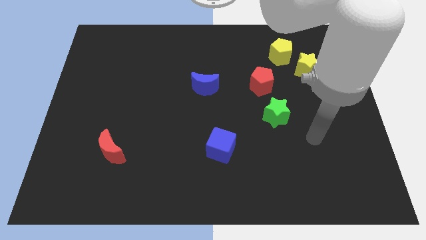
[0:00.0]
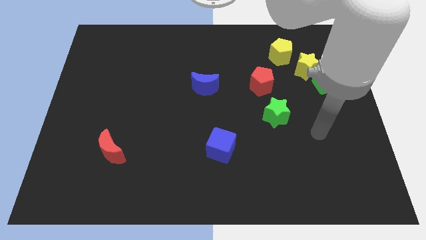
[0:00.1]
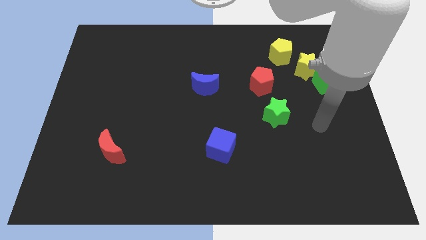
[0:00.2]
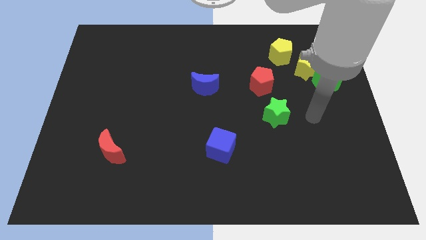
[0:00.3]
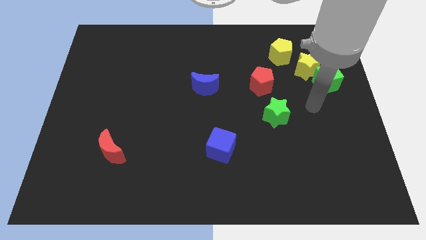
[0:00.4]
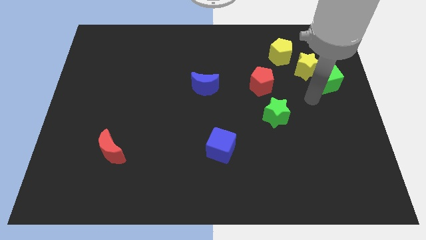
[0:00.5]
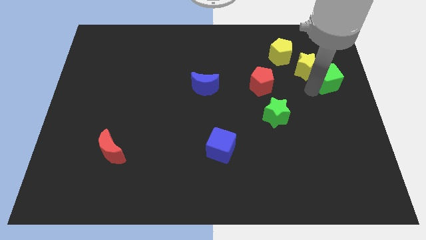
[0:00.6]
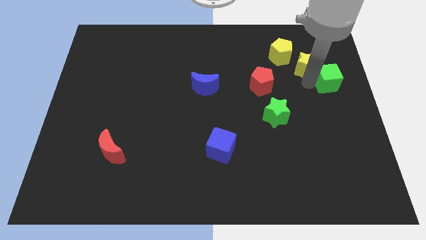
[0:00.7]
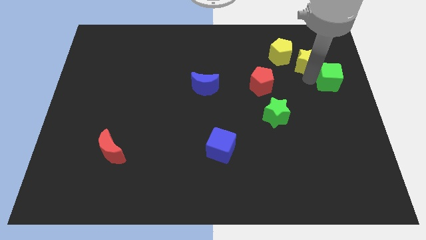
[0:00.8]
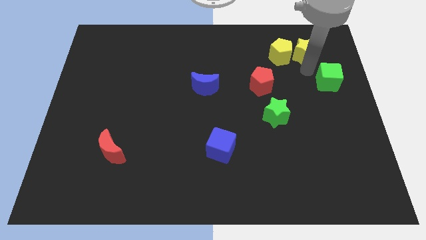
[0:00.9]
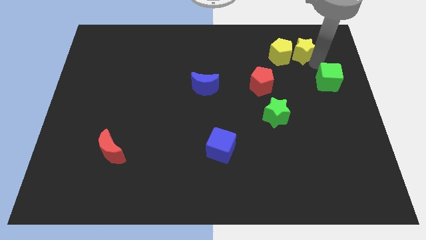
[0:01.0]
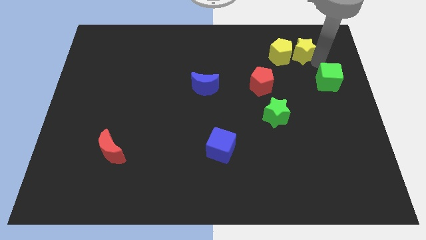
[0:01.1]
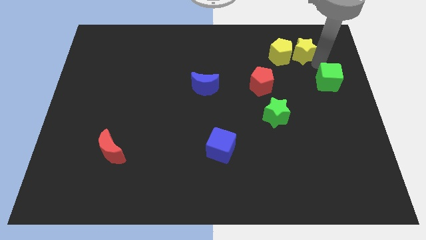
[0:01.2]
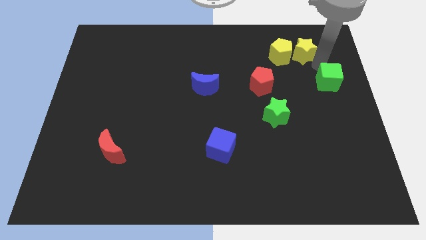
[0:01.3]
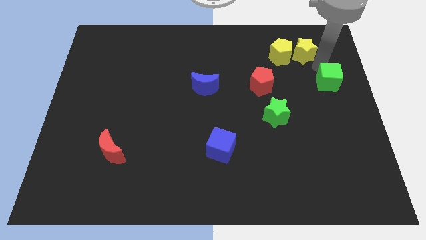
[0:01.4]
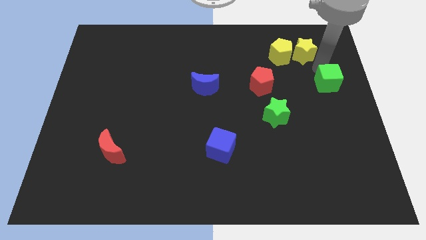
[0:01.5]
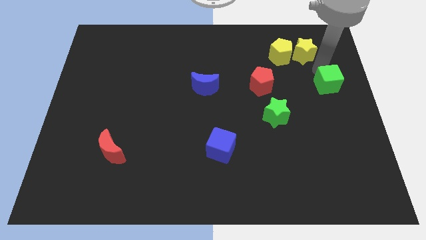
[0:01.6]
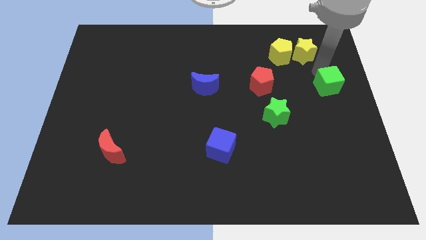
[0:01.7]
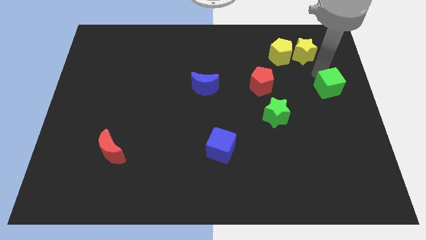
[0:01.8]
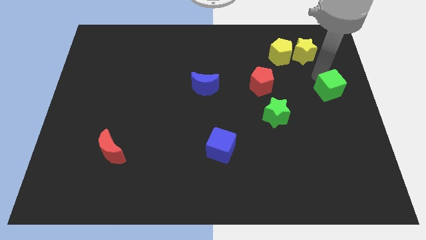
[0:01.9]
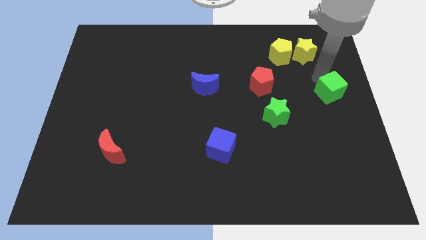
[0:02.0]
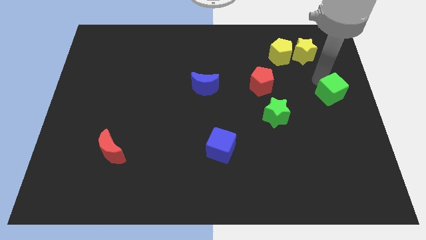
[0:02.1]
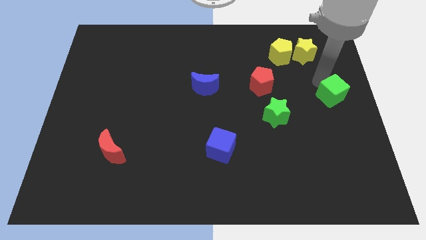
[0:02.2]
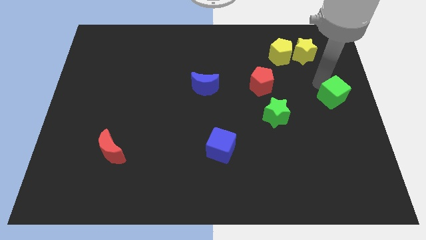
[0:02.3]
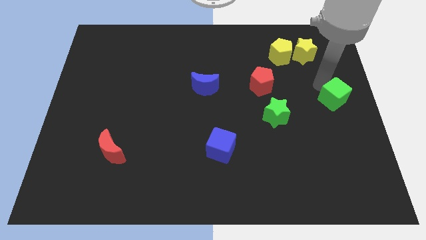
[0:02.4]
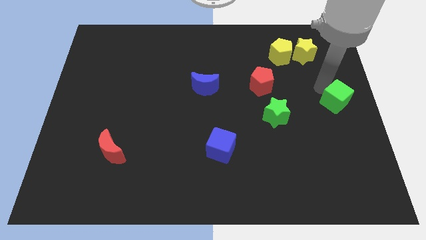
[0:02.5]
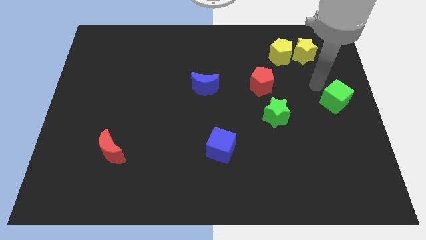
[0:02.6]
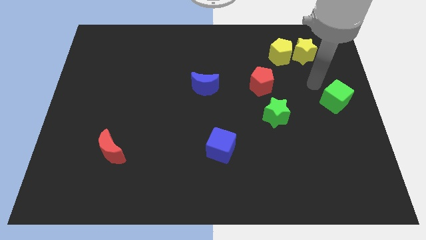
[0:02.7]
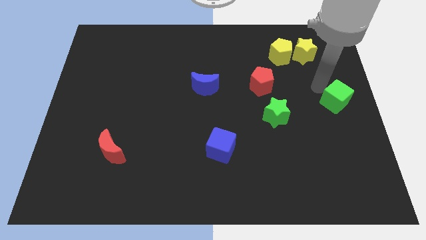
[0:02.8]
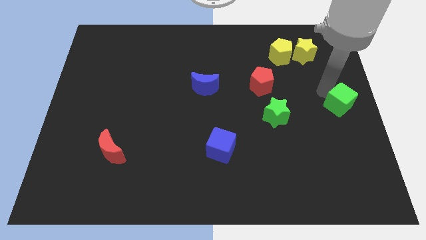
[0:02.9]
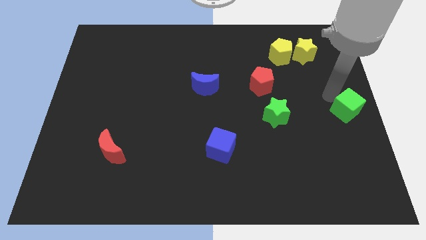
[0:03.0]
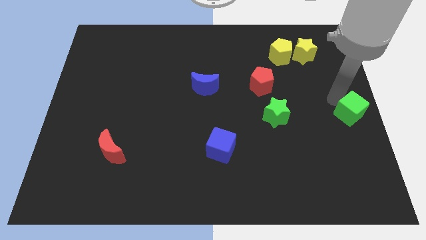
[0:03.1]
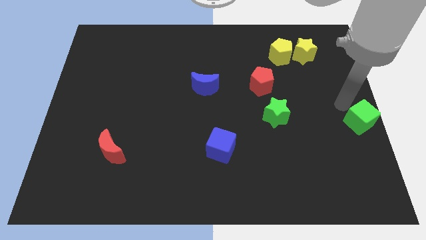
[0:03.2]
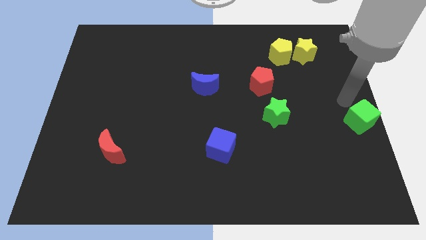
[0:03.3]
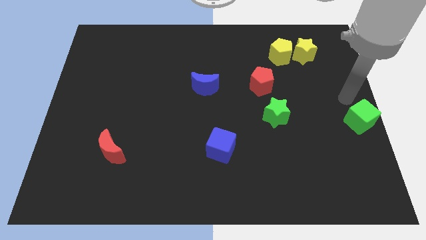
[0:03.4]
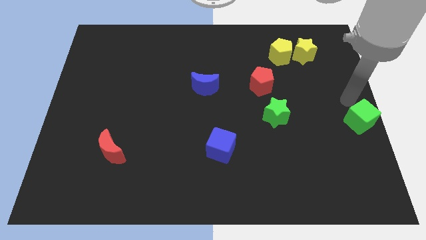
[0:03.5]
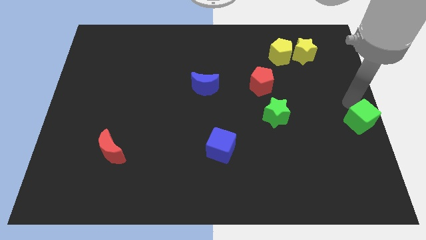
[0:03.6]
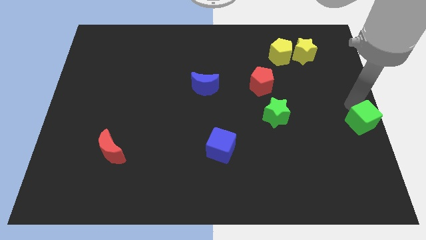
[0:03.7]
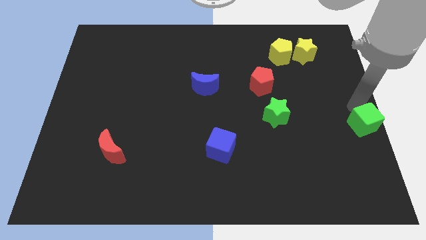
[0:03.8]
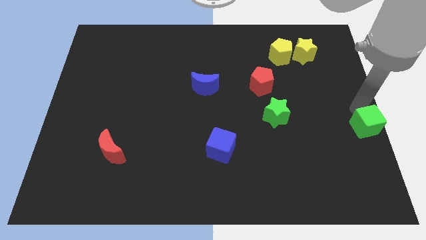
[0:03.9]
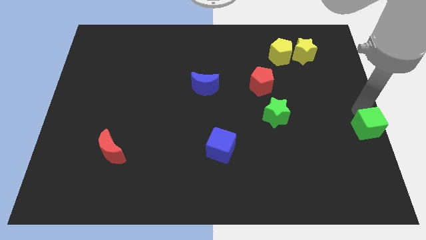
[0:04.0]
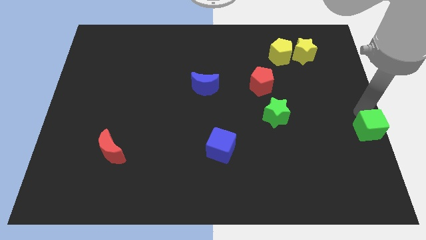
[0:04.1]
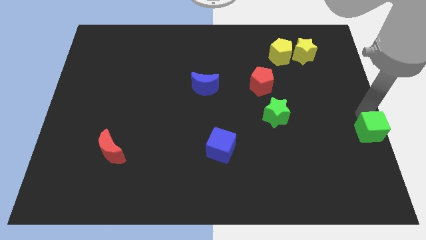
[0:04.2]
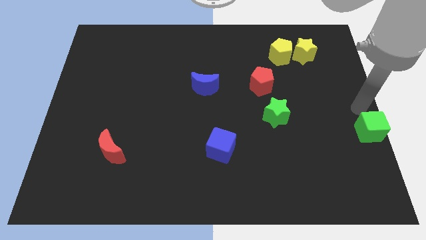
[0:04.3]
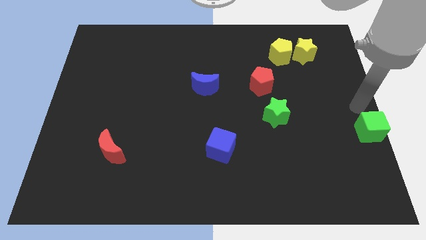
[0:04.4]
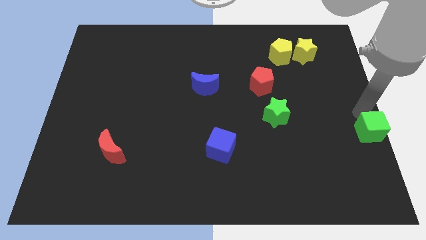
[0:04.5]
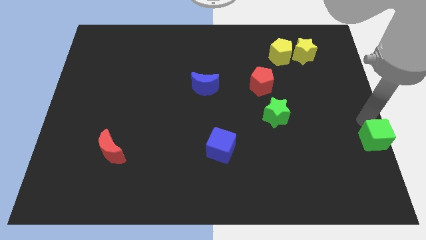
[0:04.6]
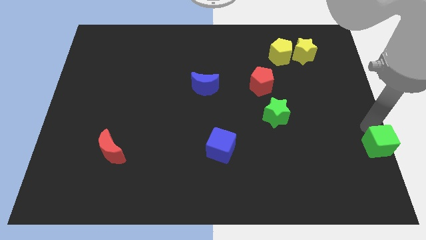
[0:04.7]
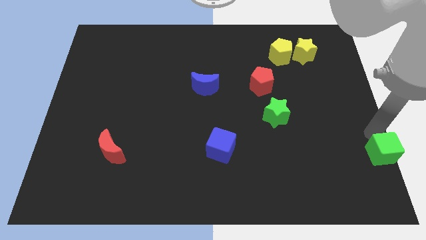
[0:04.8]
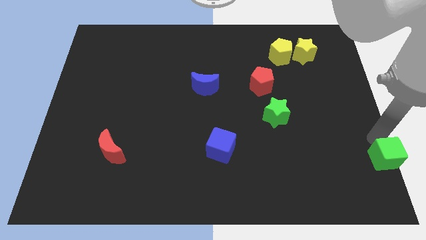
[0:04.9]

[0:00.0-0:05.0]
push the green cube to the lower right corner

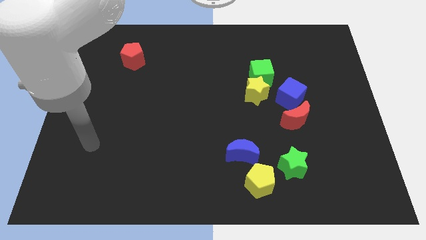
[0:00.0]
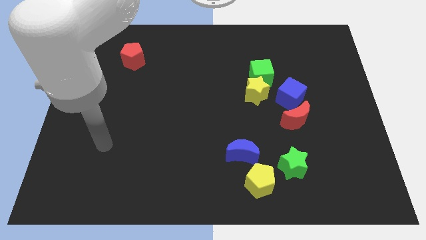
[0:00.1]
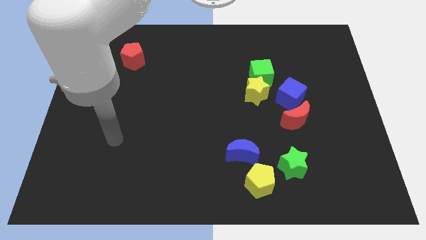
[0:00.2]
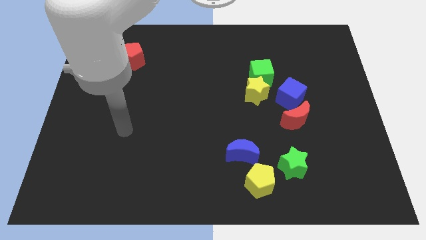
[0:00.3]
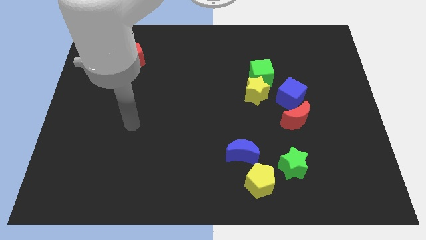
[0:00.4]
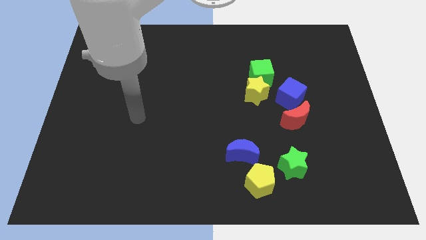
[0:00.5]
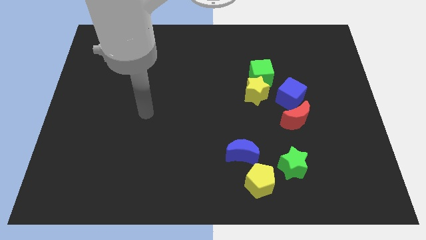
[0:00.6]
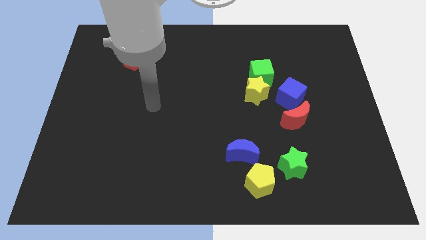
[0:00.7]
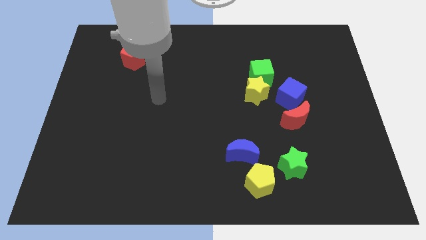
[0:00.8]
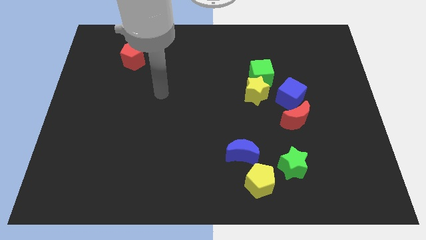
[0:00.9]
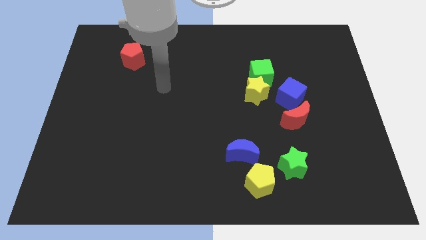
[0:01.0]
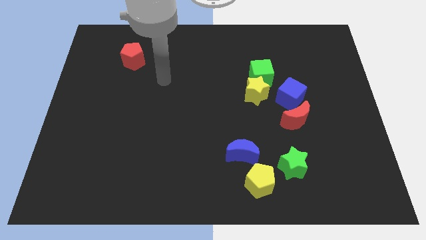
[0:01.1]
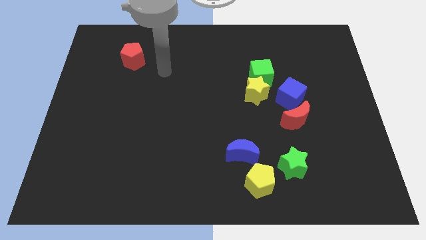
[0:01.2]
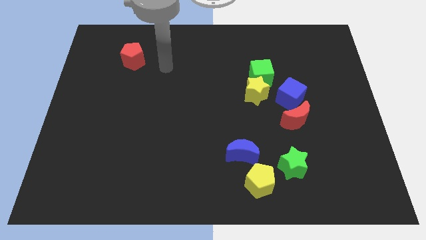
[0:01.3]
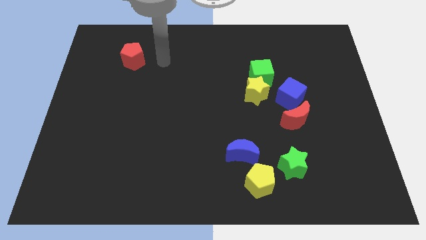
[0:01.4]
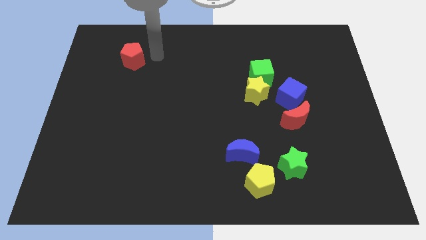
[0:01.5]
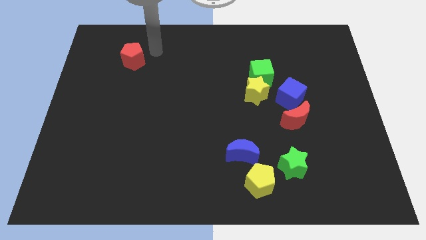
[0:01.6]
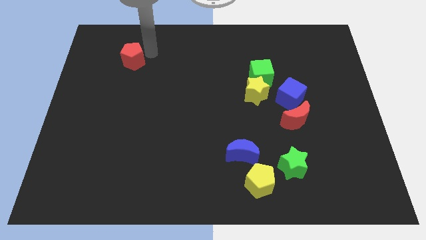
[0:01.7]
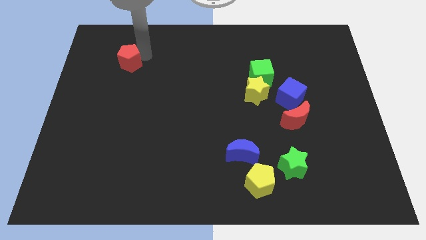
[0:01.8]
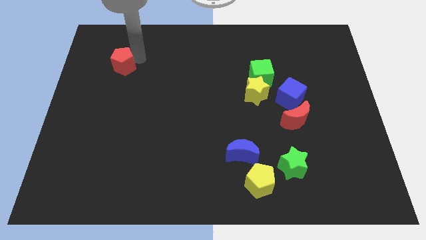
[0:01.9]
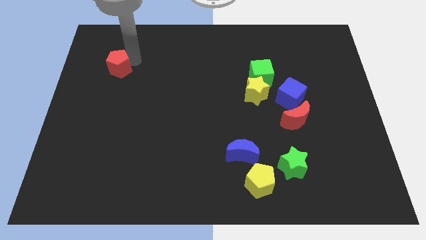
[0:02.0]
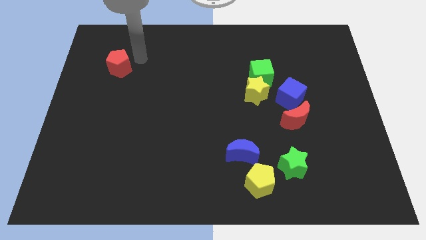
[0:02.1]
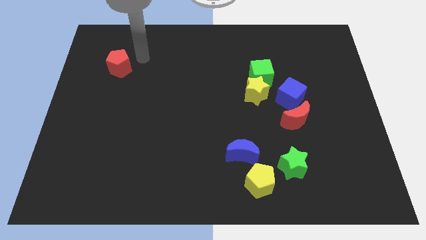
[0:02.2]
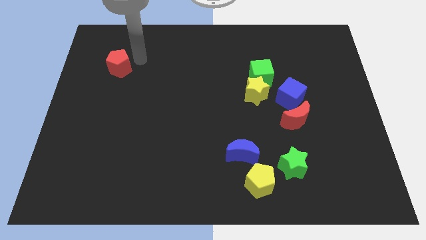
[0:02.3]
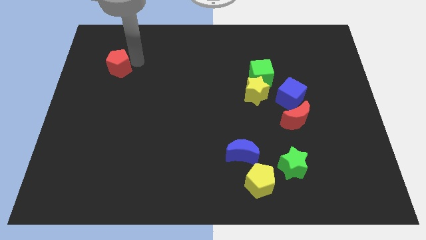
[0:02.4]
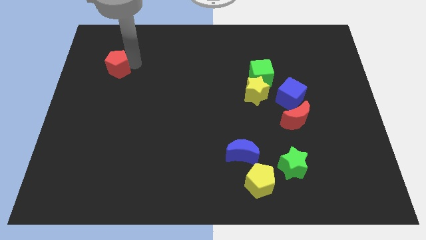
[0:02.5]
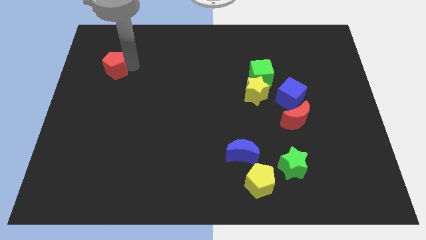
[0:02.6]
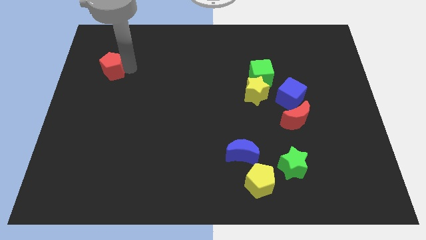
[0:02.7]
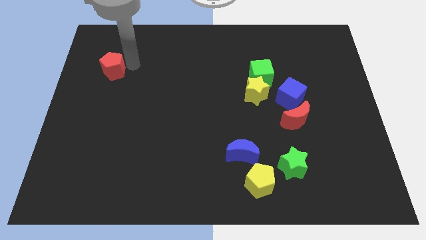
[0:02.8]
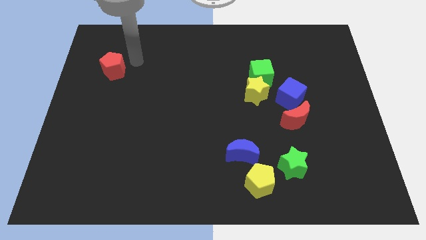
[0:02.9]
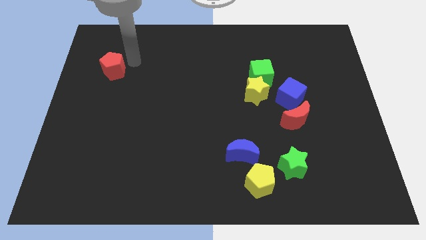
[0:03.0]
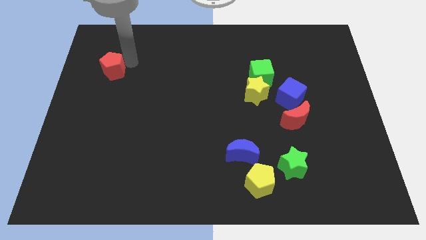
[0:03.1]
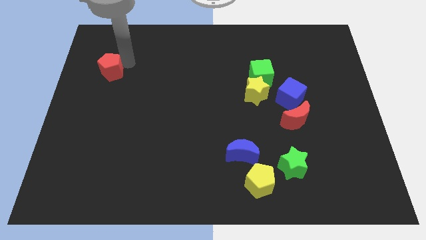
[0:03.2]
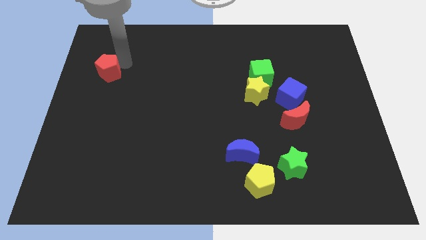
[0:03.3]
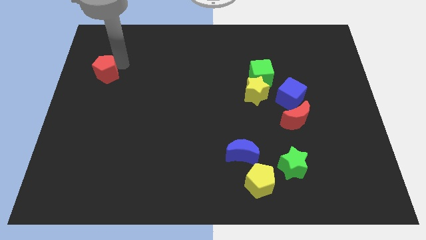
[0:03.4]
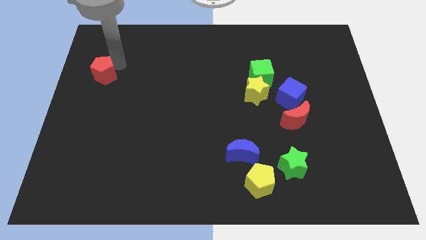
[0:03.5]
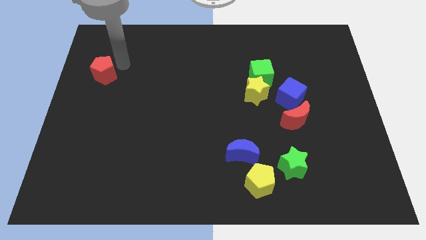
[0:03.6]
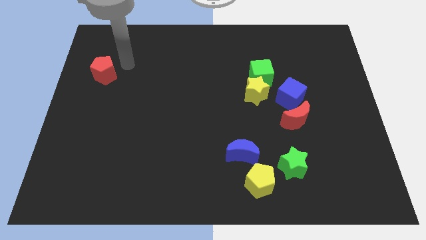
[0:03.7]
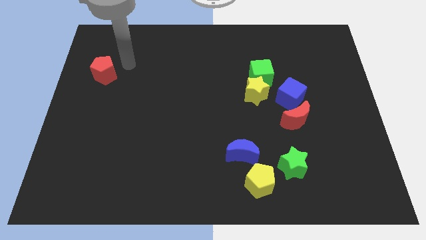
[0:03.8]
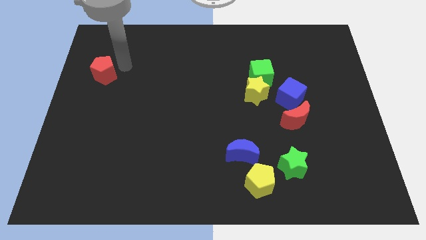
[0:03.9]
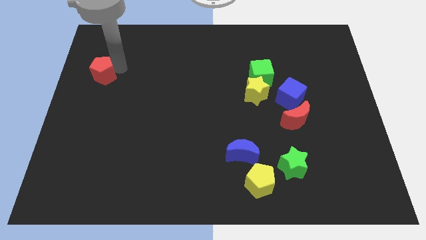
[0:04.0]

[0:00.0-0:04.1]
put the red pentagon to the left side of the board
